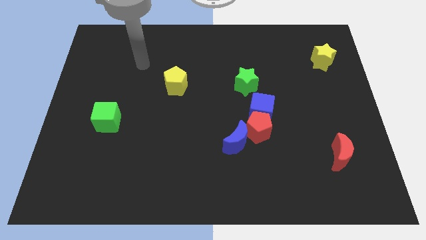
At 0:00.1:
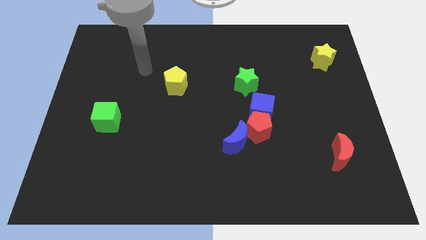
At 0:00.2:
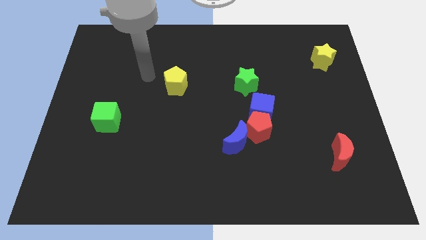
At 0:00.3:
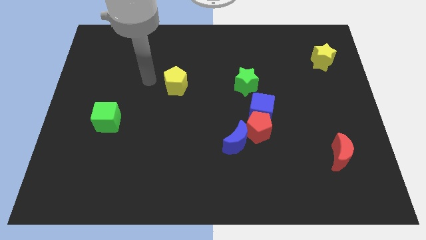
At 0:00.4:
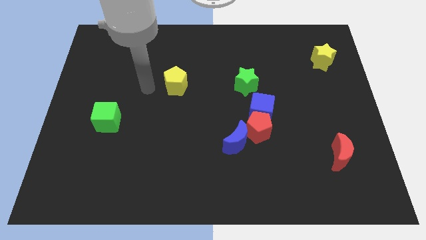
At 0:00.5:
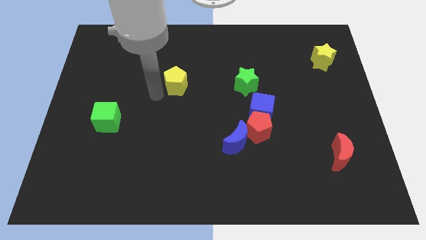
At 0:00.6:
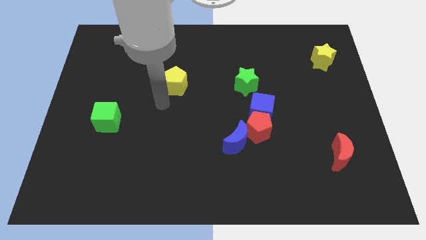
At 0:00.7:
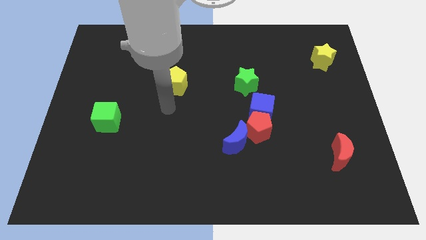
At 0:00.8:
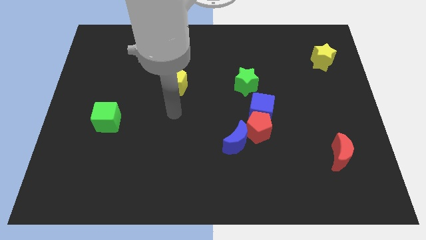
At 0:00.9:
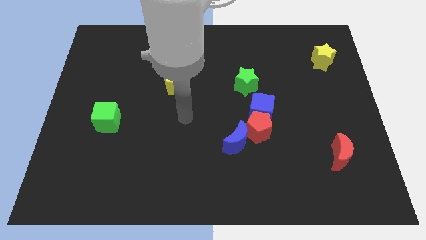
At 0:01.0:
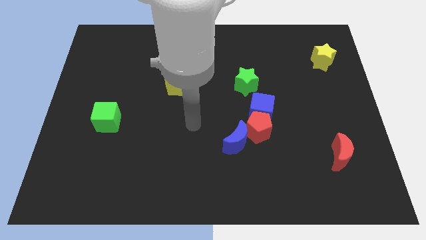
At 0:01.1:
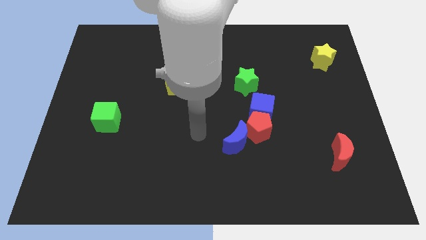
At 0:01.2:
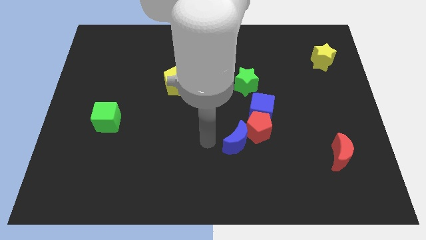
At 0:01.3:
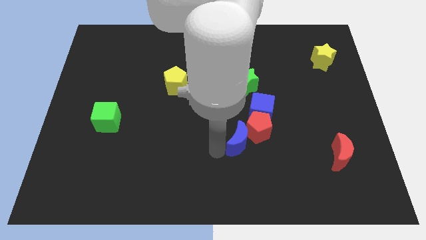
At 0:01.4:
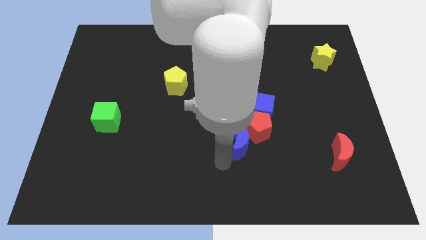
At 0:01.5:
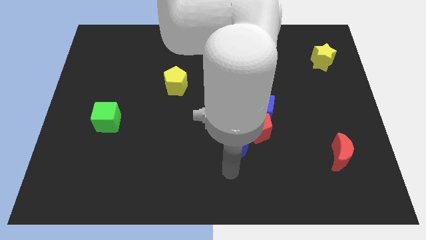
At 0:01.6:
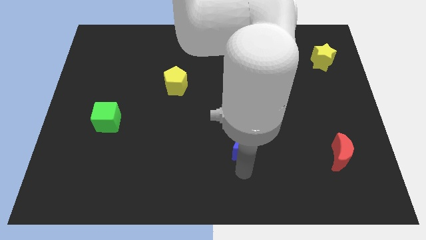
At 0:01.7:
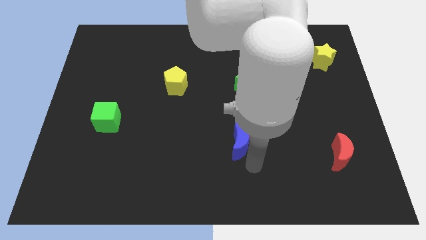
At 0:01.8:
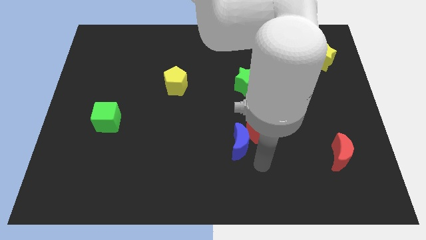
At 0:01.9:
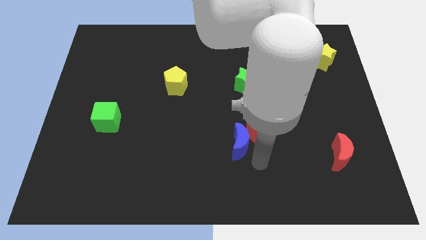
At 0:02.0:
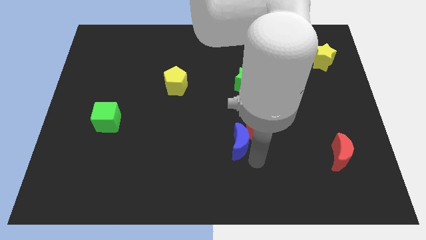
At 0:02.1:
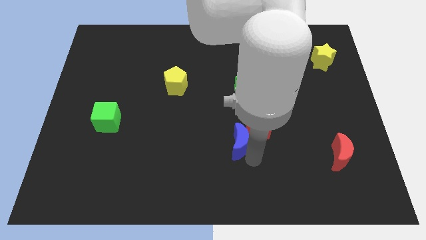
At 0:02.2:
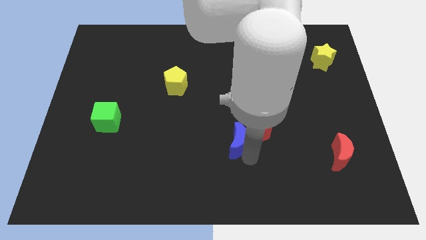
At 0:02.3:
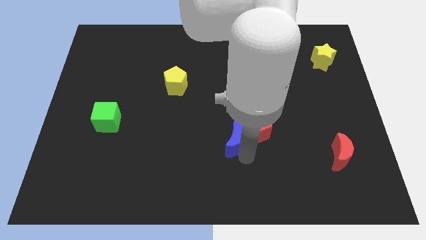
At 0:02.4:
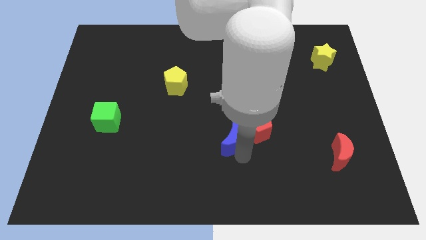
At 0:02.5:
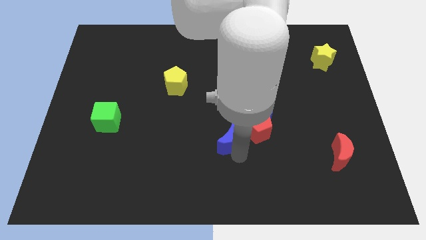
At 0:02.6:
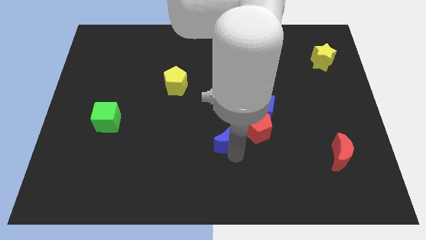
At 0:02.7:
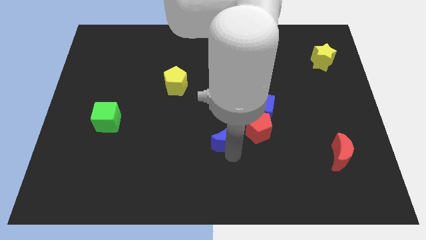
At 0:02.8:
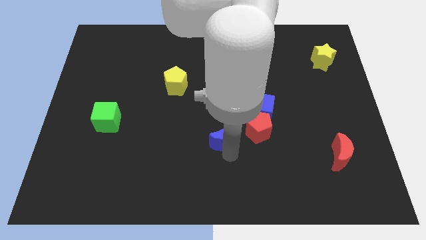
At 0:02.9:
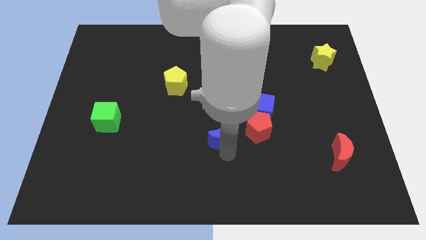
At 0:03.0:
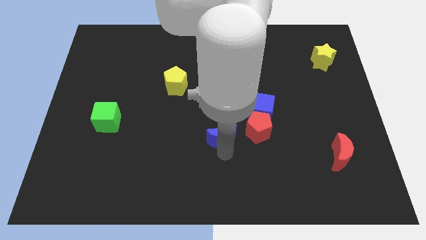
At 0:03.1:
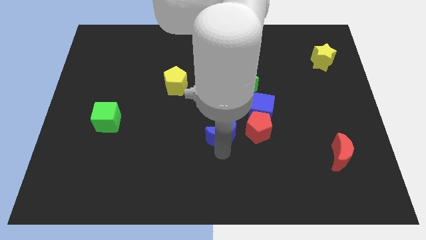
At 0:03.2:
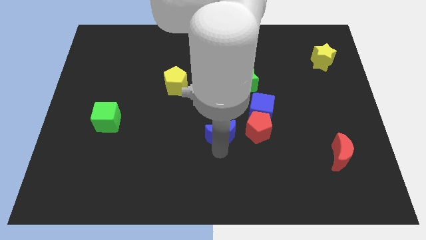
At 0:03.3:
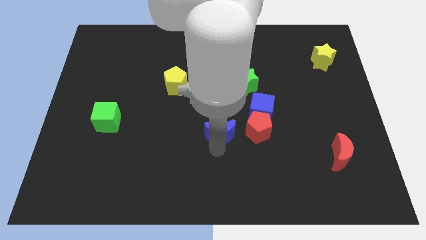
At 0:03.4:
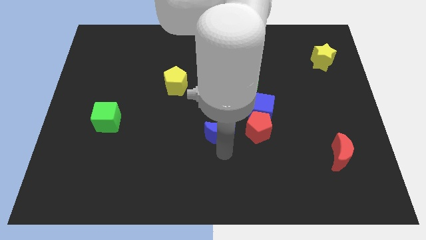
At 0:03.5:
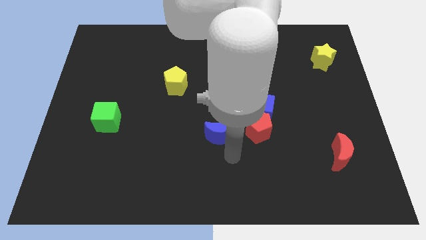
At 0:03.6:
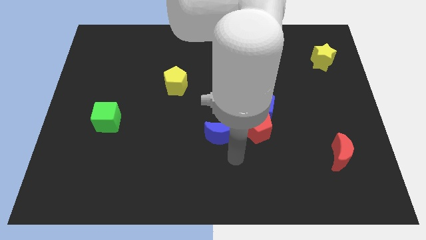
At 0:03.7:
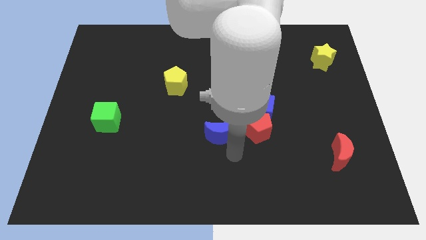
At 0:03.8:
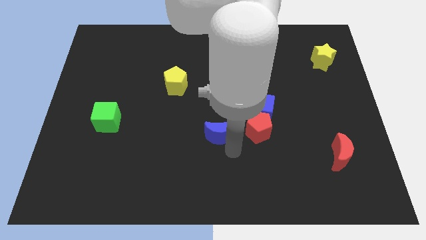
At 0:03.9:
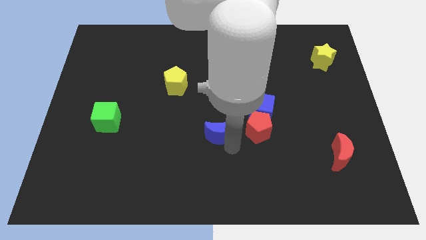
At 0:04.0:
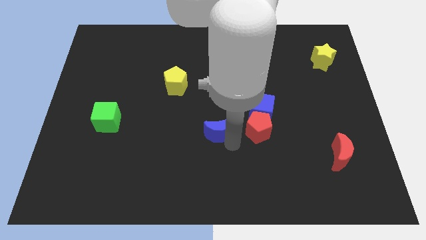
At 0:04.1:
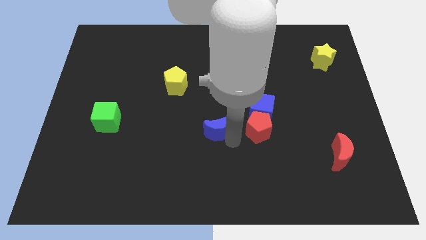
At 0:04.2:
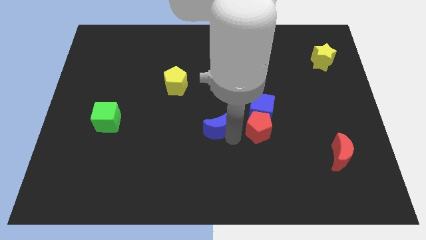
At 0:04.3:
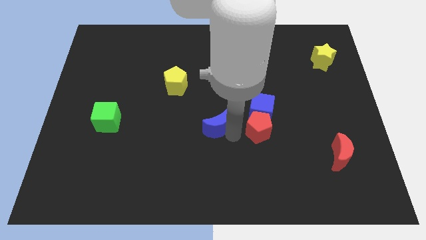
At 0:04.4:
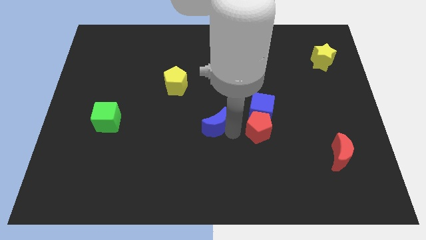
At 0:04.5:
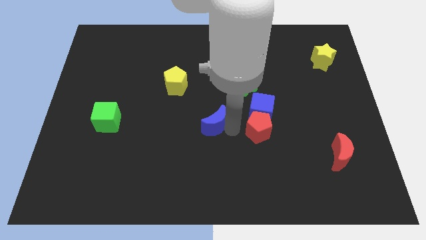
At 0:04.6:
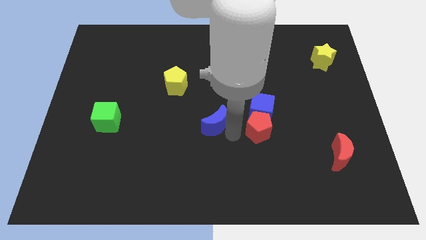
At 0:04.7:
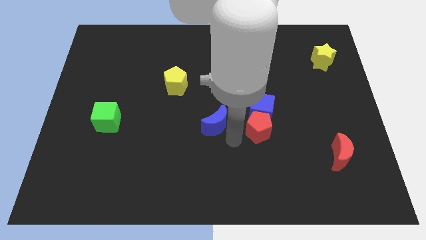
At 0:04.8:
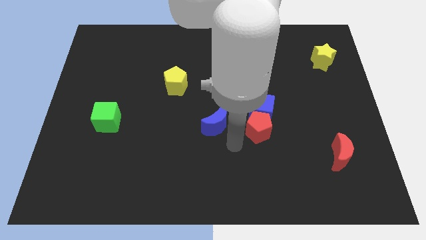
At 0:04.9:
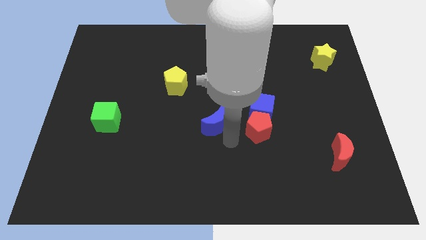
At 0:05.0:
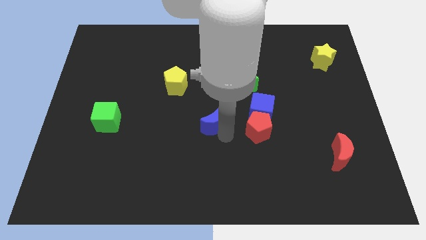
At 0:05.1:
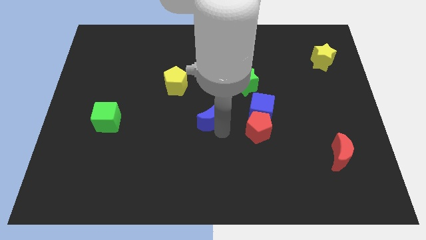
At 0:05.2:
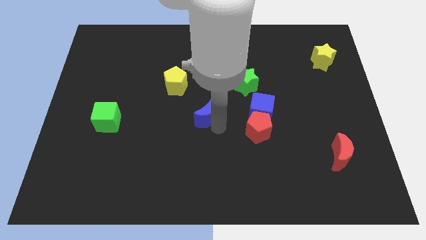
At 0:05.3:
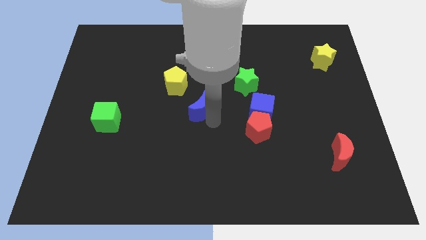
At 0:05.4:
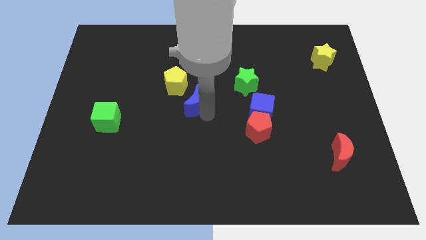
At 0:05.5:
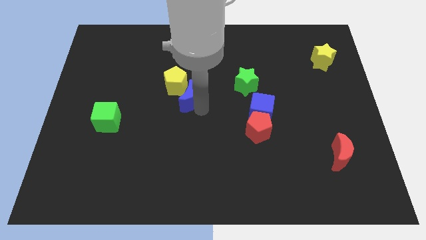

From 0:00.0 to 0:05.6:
move the blue moon to the yellow pentagon
